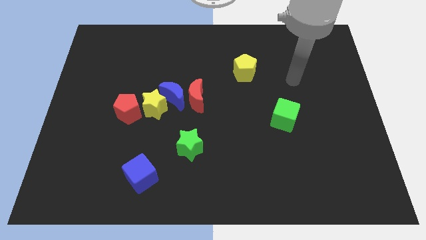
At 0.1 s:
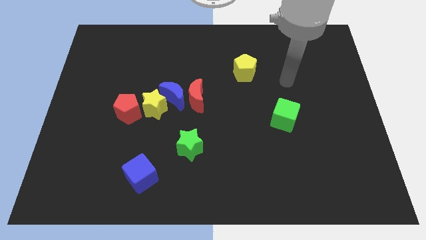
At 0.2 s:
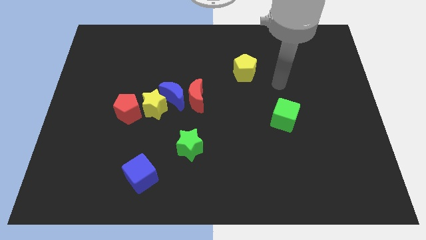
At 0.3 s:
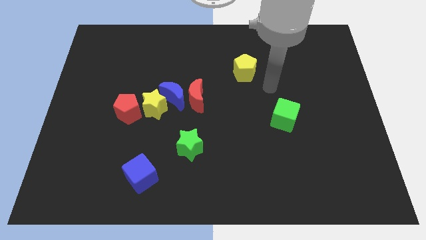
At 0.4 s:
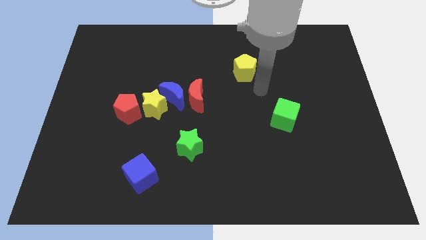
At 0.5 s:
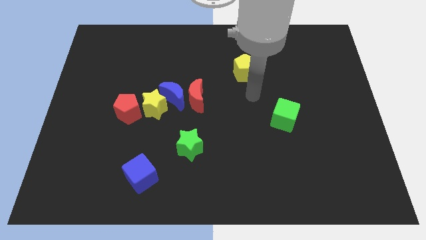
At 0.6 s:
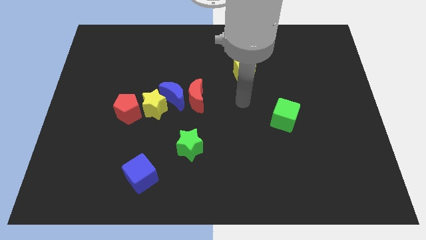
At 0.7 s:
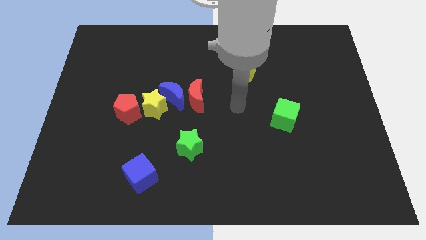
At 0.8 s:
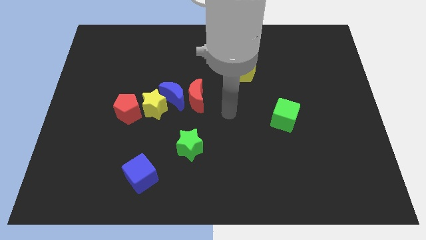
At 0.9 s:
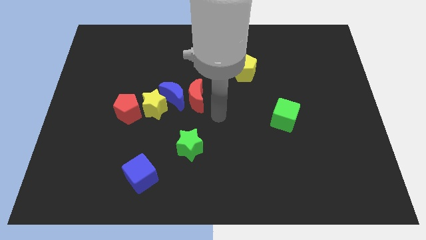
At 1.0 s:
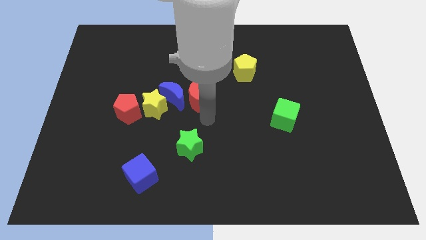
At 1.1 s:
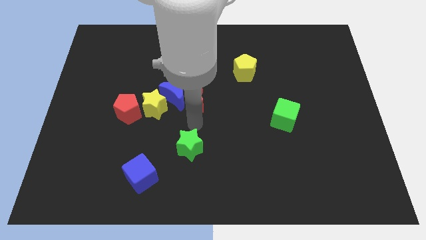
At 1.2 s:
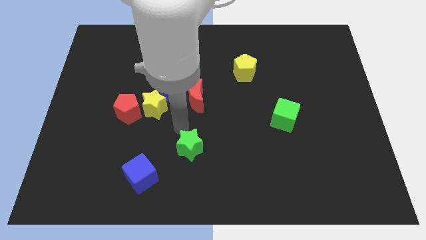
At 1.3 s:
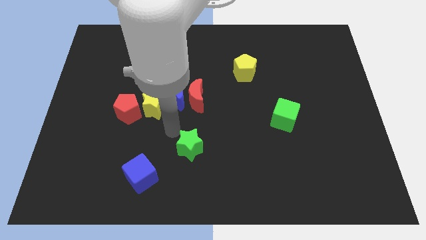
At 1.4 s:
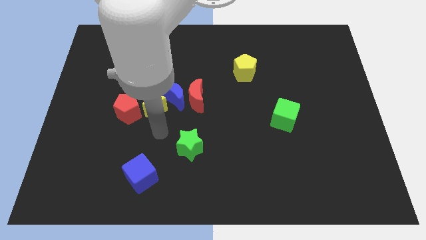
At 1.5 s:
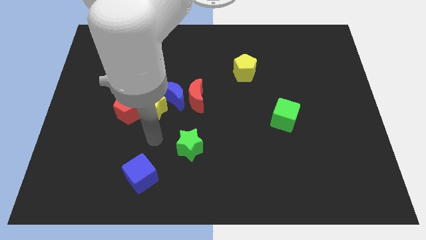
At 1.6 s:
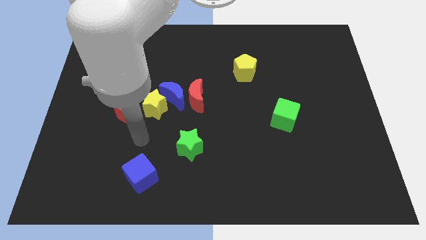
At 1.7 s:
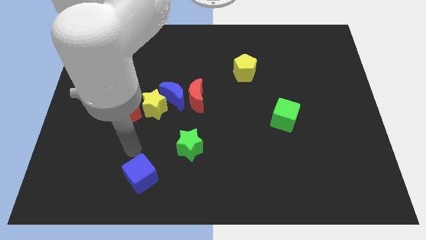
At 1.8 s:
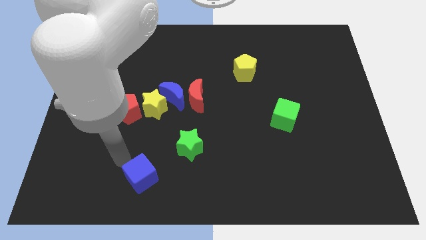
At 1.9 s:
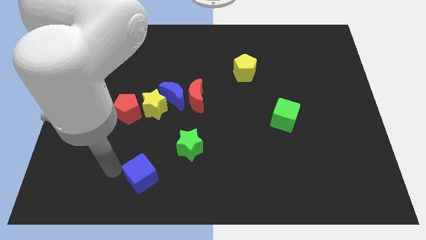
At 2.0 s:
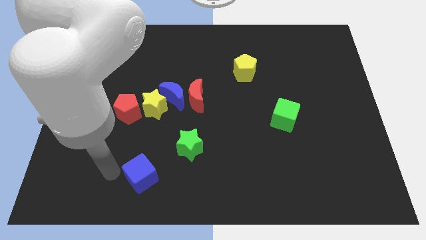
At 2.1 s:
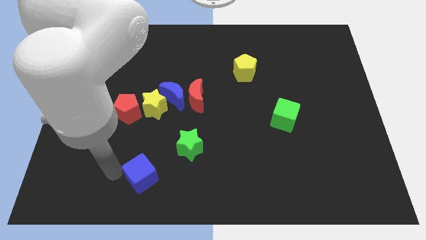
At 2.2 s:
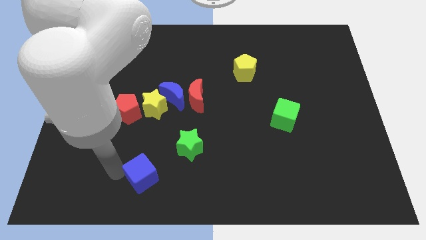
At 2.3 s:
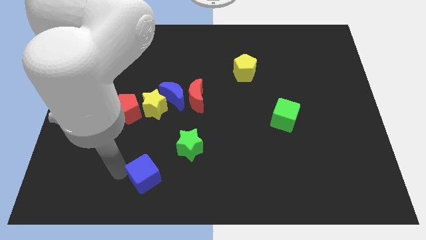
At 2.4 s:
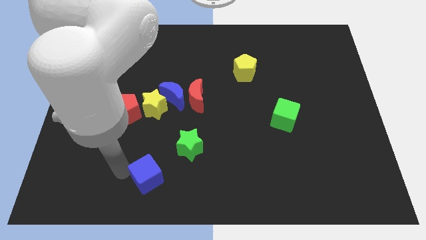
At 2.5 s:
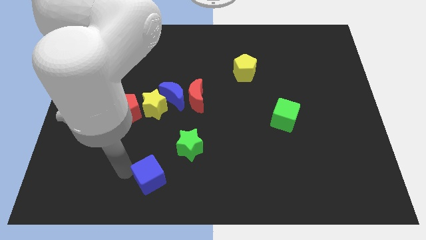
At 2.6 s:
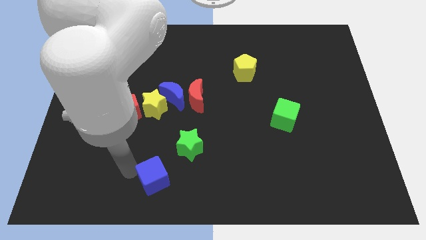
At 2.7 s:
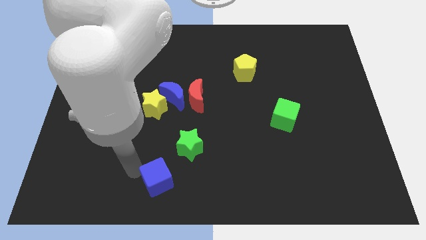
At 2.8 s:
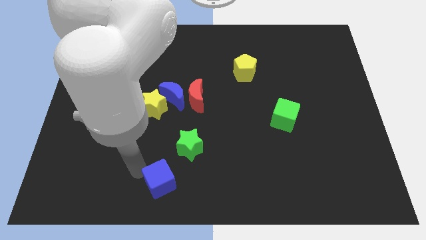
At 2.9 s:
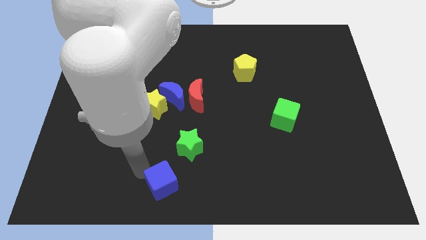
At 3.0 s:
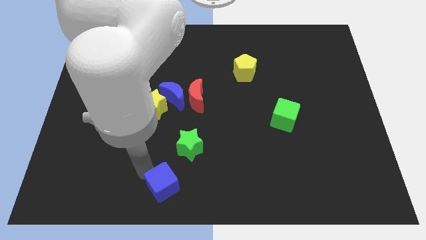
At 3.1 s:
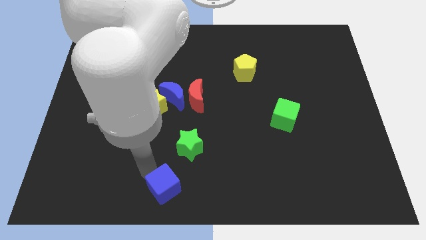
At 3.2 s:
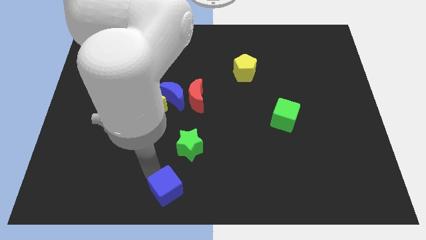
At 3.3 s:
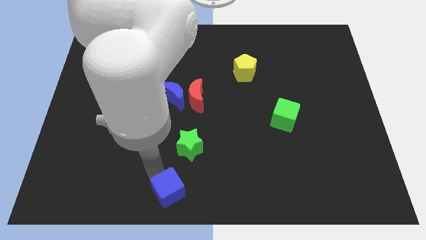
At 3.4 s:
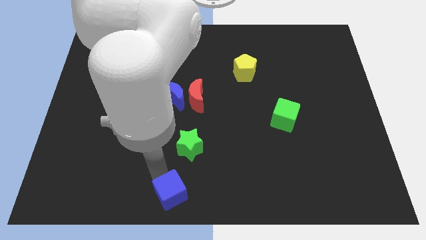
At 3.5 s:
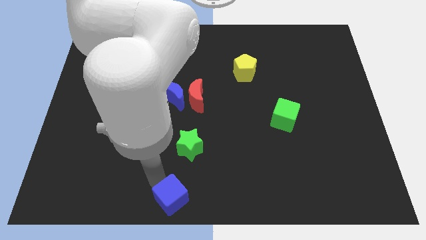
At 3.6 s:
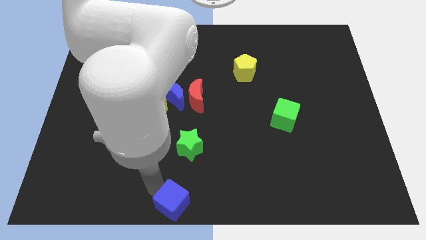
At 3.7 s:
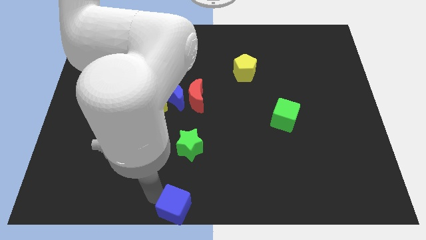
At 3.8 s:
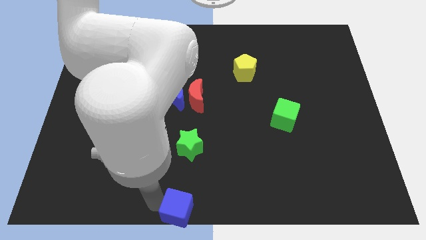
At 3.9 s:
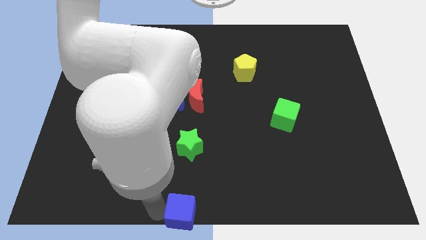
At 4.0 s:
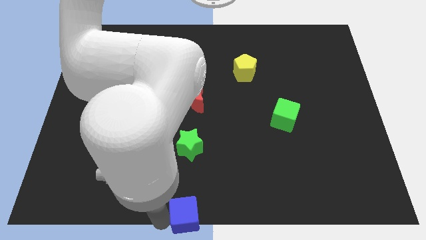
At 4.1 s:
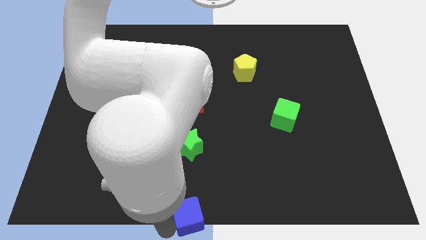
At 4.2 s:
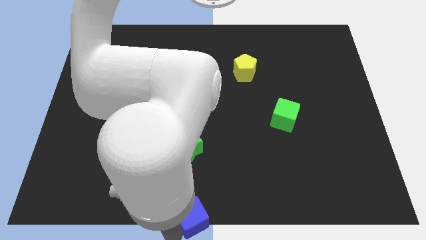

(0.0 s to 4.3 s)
slightly slide the blue cube to the right

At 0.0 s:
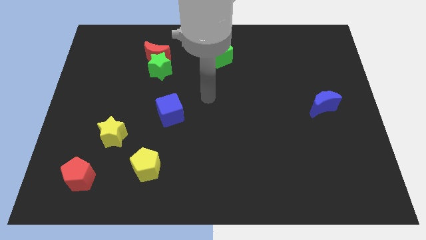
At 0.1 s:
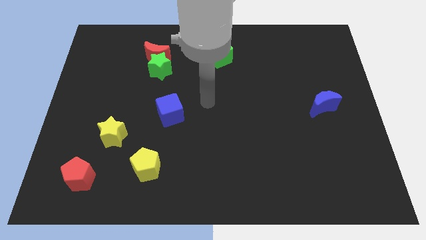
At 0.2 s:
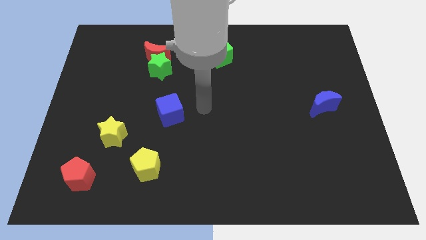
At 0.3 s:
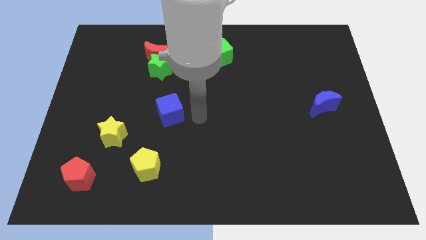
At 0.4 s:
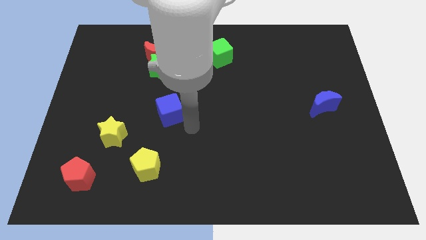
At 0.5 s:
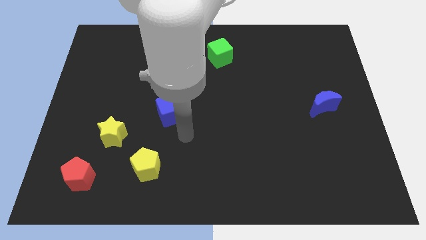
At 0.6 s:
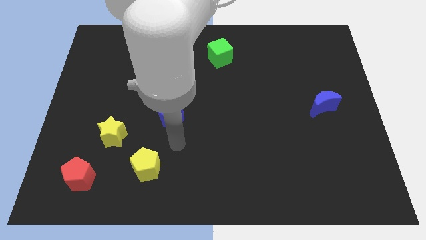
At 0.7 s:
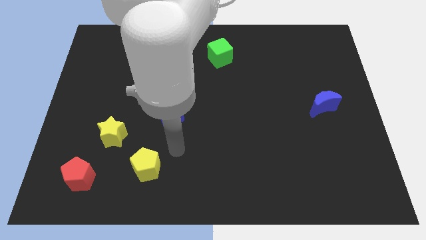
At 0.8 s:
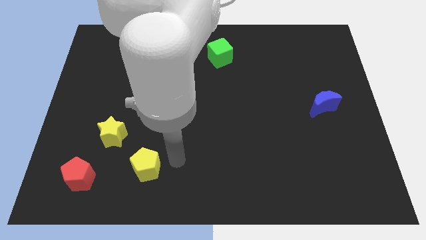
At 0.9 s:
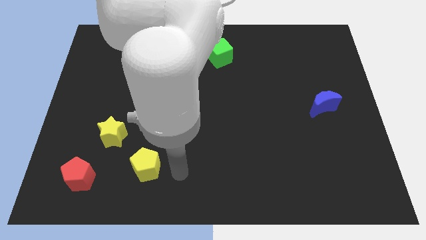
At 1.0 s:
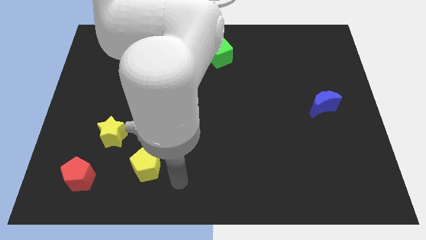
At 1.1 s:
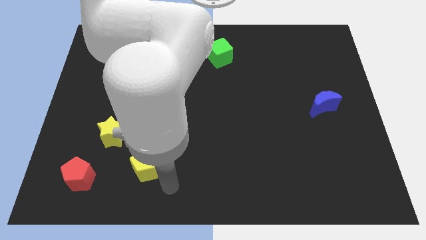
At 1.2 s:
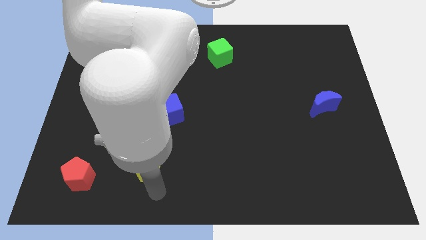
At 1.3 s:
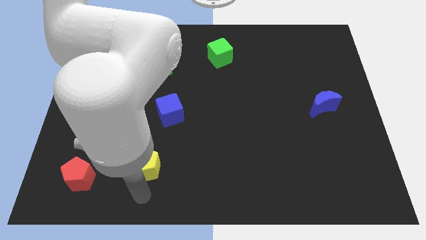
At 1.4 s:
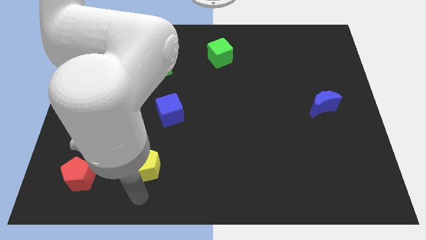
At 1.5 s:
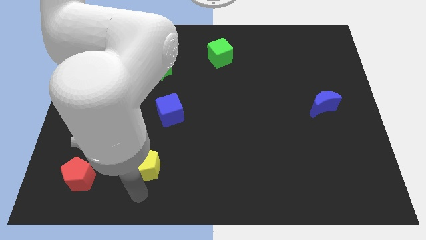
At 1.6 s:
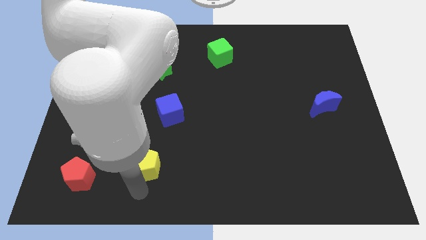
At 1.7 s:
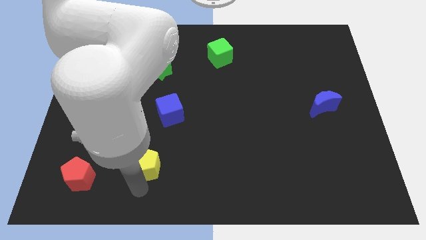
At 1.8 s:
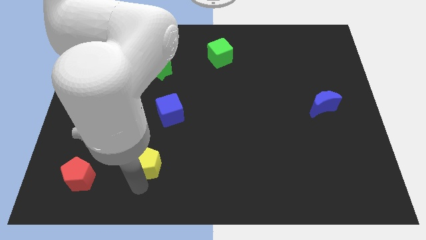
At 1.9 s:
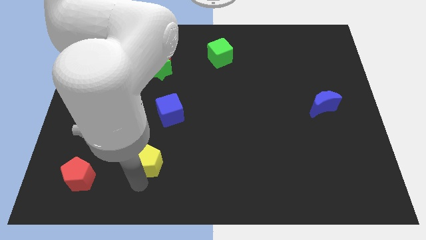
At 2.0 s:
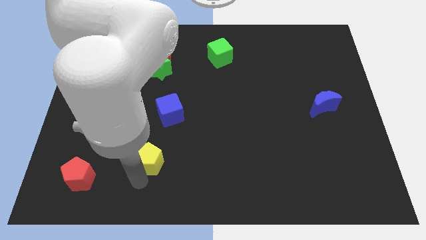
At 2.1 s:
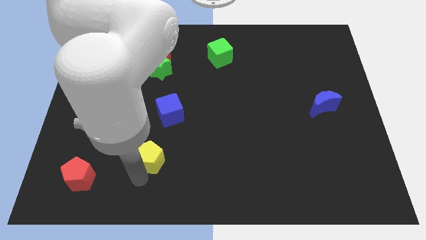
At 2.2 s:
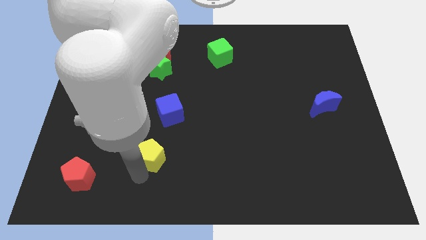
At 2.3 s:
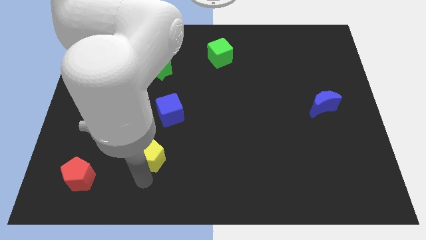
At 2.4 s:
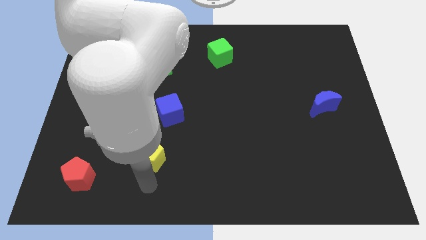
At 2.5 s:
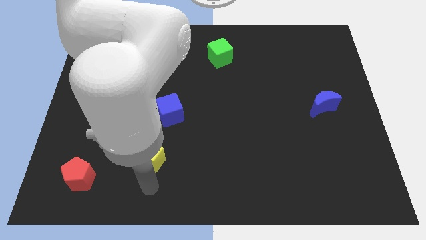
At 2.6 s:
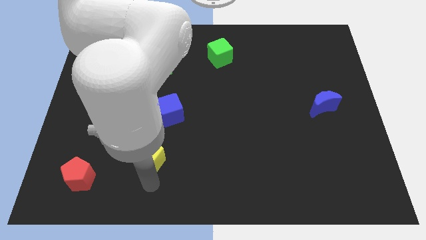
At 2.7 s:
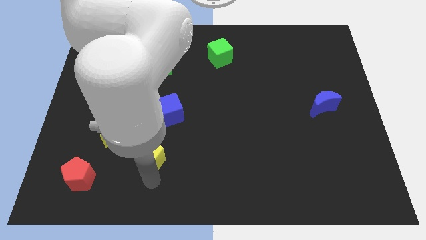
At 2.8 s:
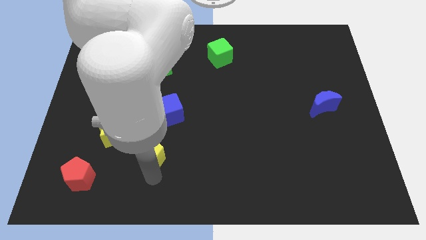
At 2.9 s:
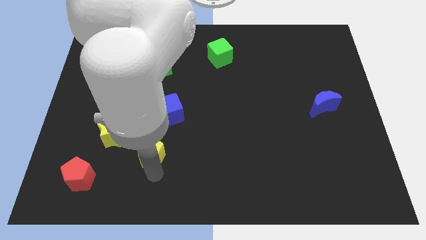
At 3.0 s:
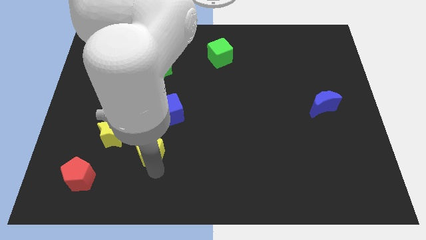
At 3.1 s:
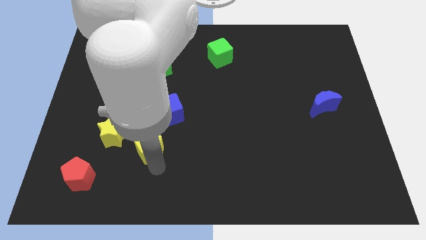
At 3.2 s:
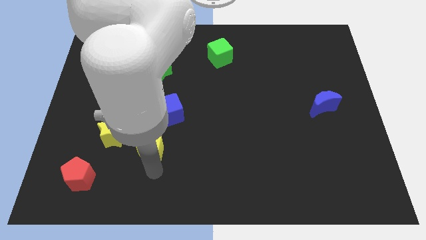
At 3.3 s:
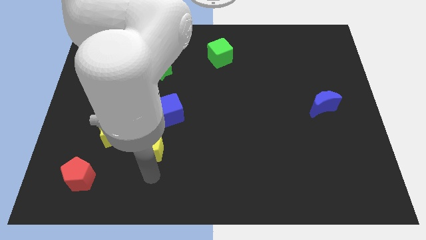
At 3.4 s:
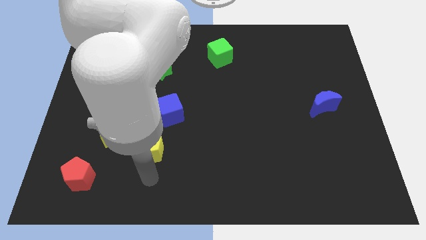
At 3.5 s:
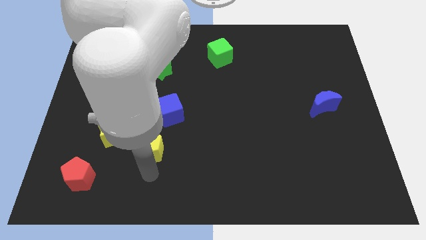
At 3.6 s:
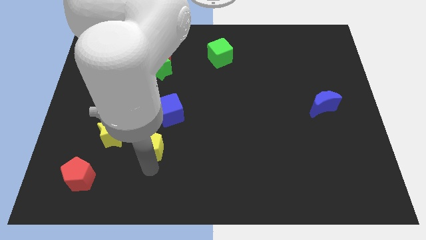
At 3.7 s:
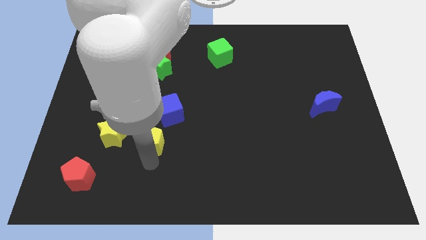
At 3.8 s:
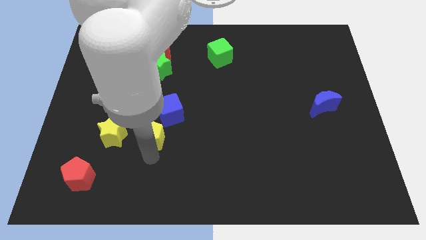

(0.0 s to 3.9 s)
push the yellow pentagon a bit up
